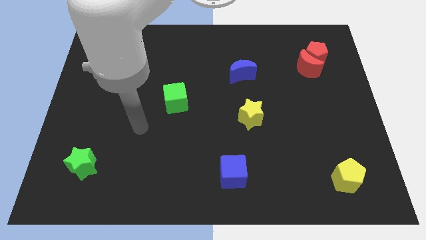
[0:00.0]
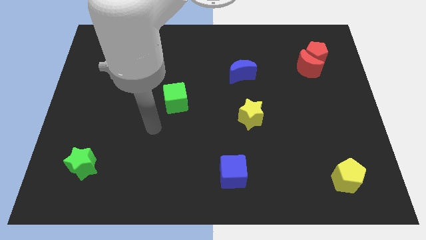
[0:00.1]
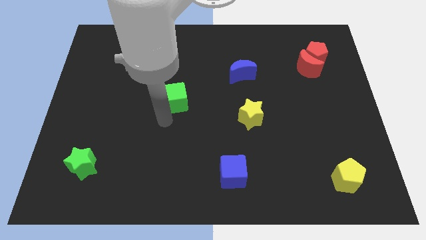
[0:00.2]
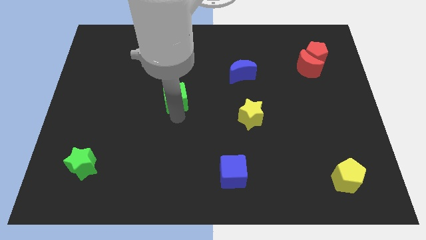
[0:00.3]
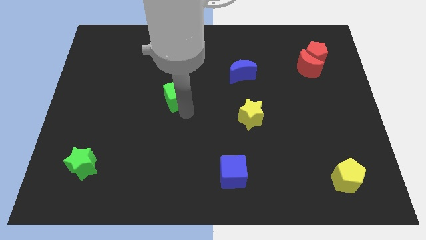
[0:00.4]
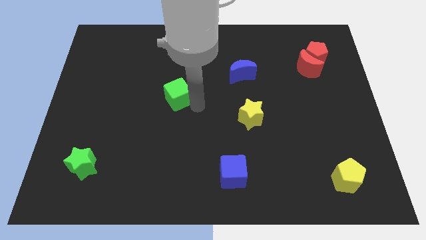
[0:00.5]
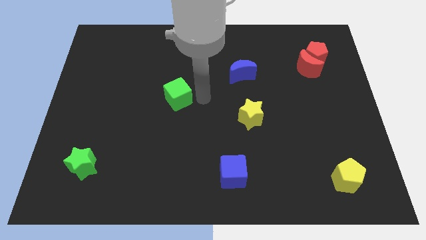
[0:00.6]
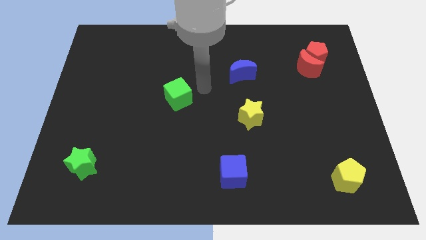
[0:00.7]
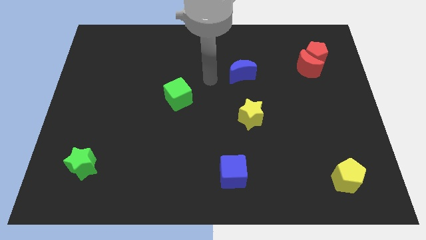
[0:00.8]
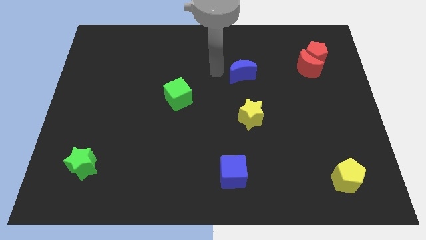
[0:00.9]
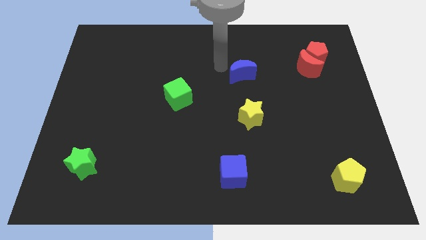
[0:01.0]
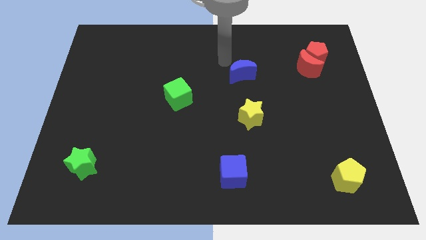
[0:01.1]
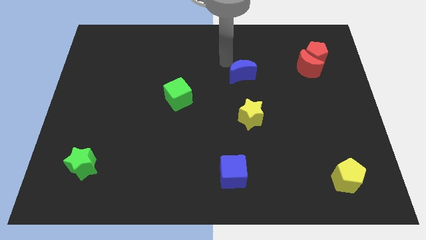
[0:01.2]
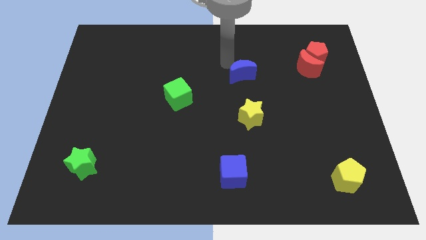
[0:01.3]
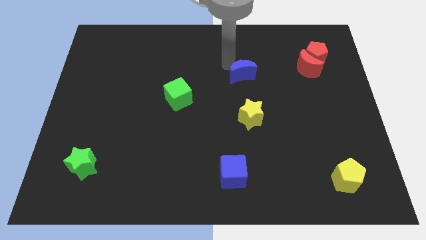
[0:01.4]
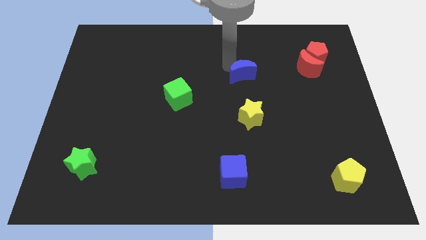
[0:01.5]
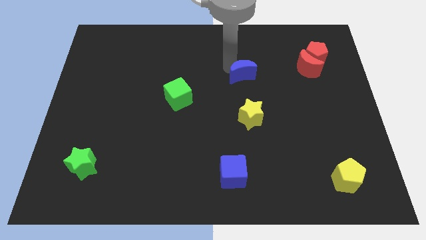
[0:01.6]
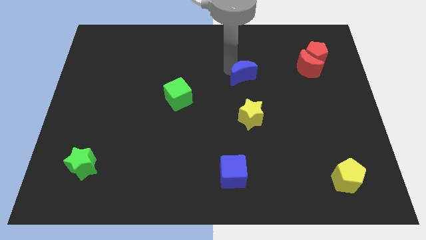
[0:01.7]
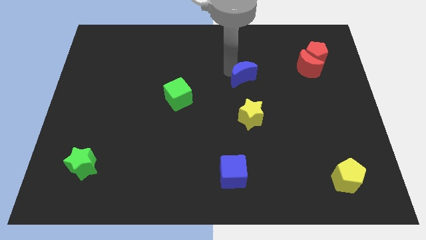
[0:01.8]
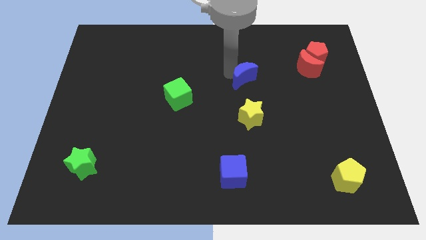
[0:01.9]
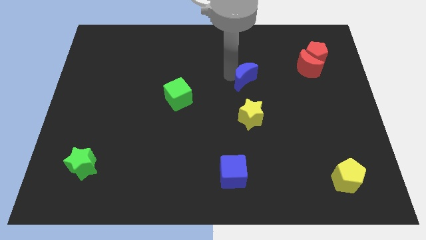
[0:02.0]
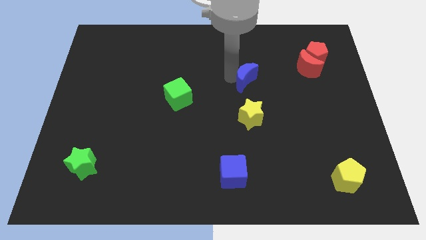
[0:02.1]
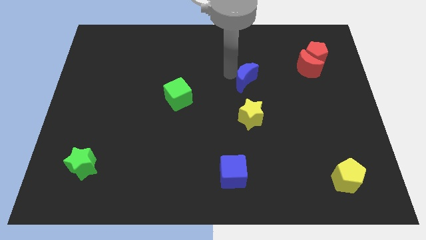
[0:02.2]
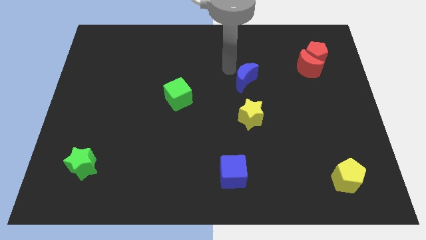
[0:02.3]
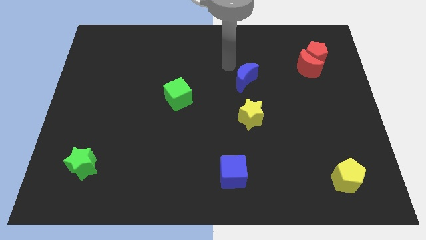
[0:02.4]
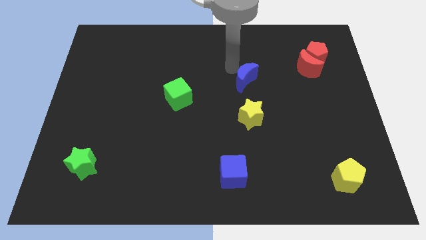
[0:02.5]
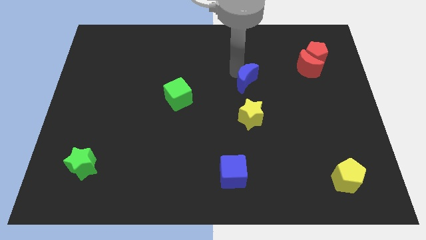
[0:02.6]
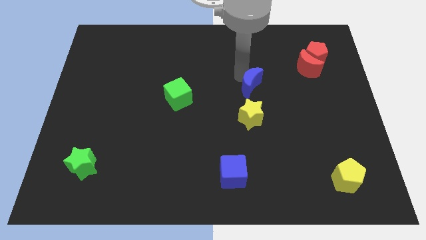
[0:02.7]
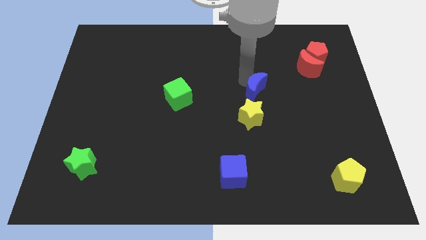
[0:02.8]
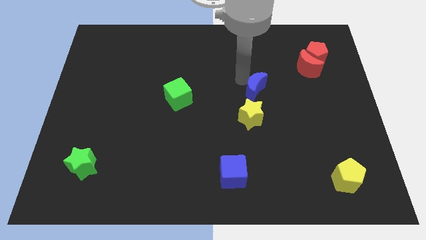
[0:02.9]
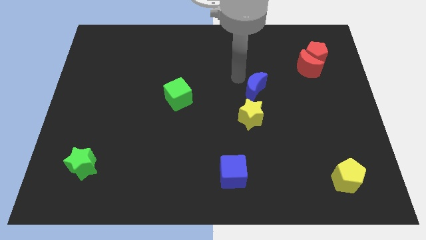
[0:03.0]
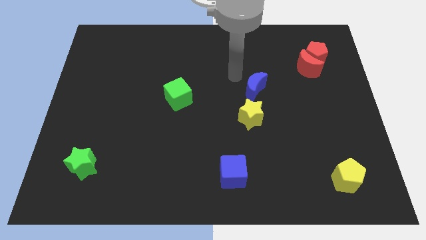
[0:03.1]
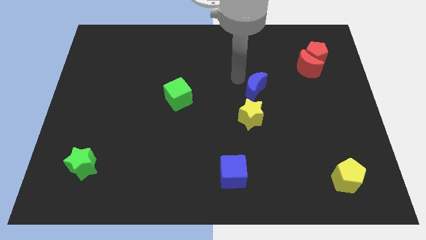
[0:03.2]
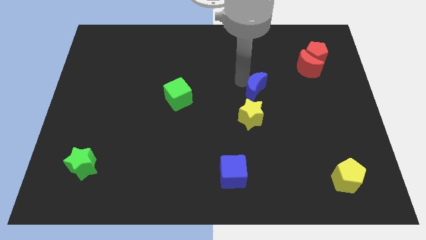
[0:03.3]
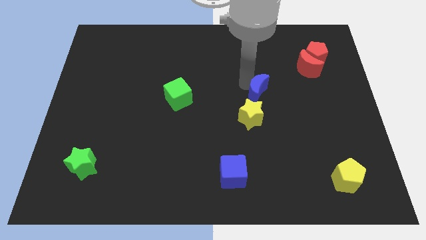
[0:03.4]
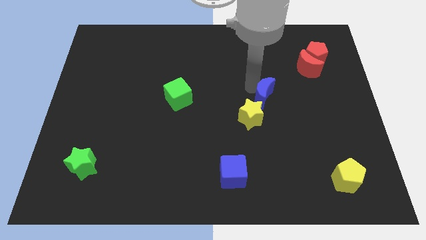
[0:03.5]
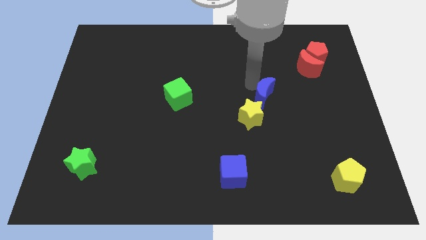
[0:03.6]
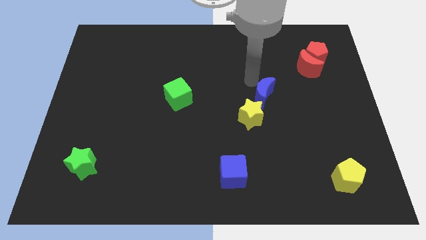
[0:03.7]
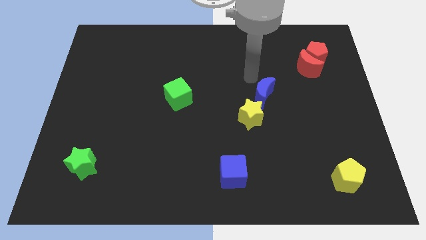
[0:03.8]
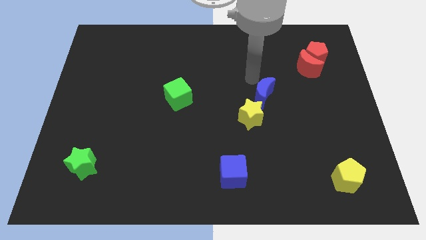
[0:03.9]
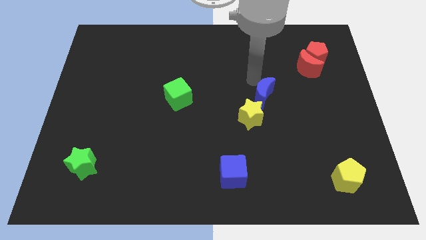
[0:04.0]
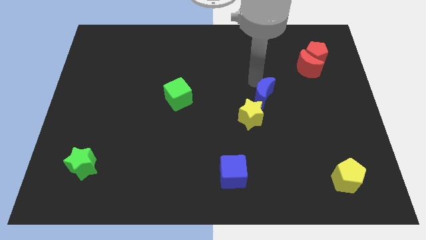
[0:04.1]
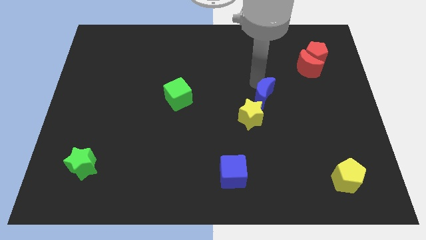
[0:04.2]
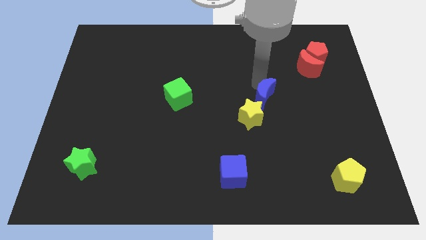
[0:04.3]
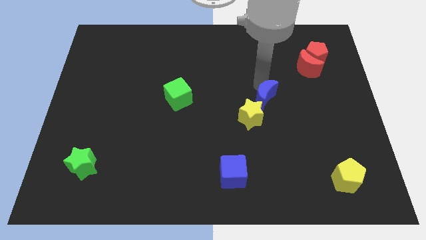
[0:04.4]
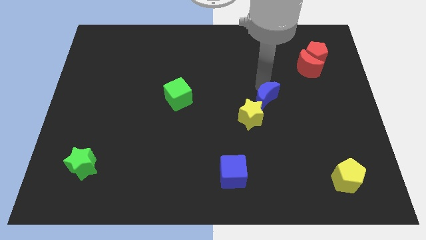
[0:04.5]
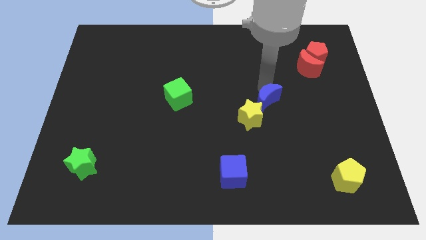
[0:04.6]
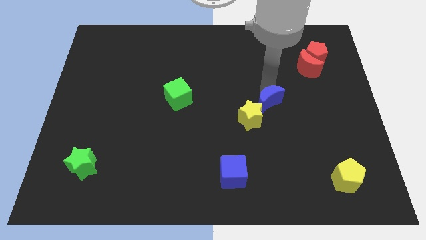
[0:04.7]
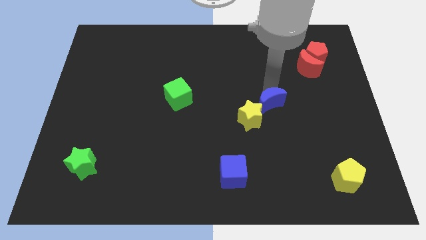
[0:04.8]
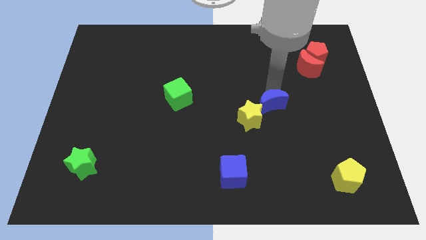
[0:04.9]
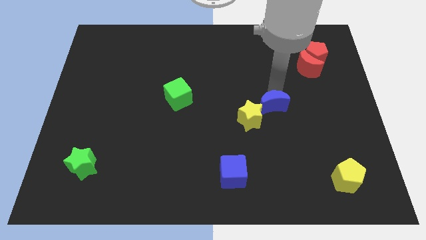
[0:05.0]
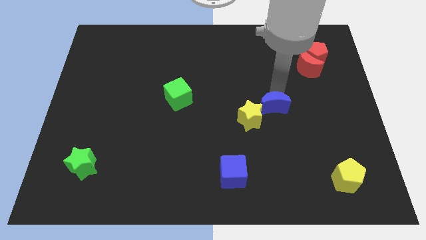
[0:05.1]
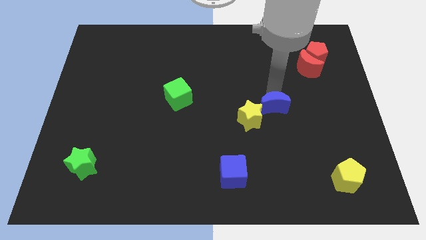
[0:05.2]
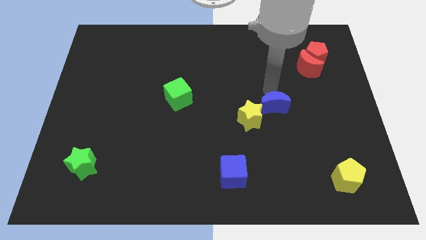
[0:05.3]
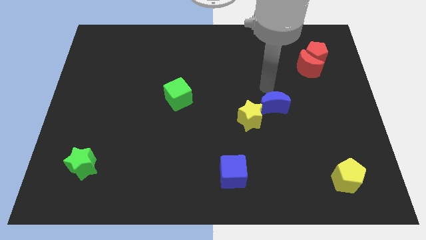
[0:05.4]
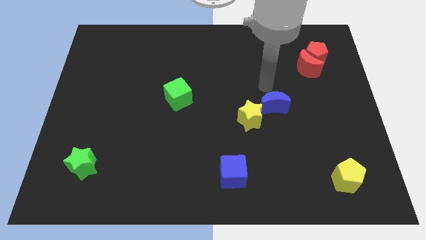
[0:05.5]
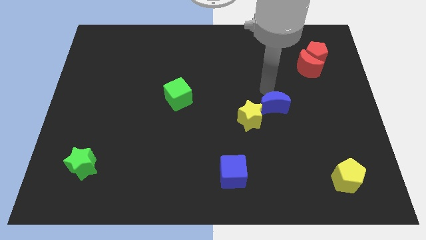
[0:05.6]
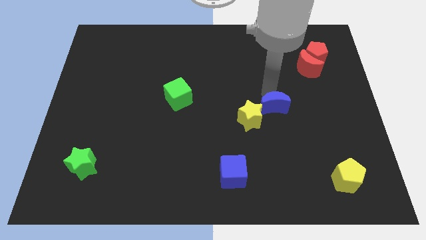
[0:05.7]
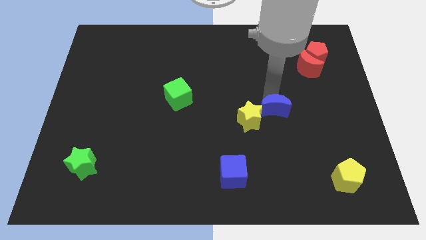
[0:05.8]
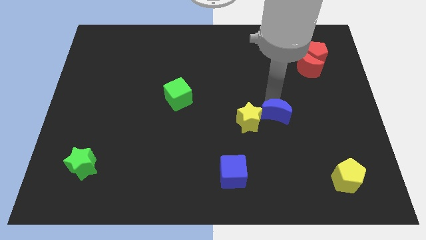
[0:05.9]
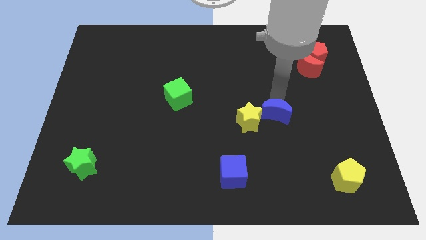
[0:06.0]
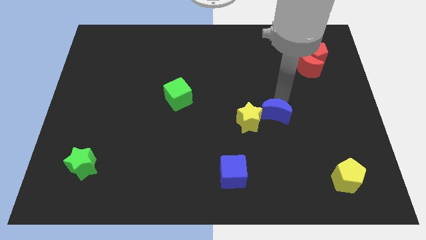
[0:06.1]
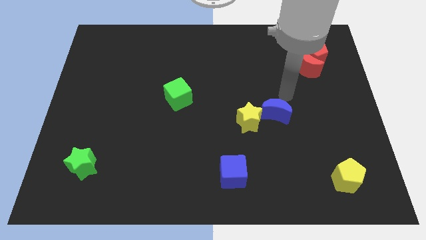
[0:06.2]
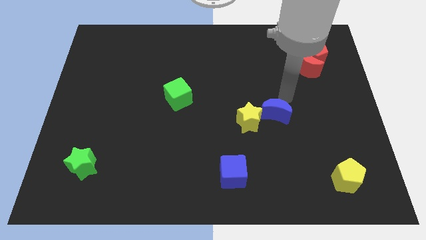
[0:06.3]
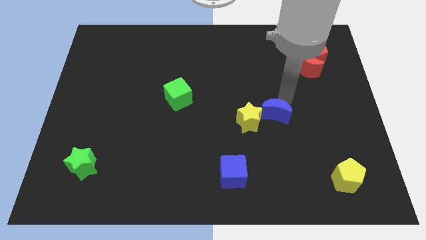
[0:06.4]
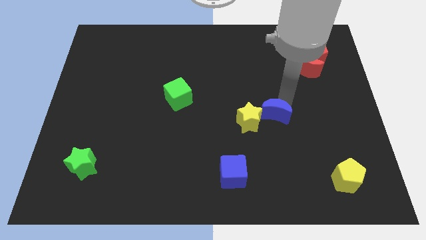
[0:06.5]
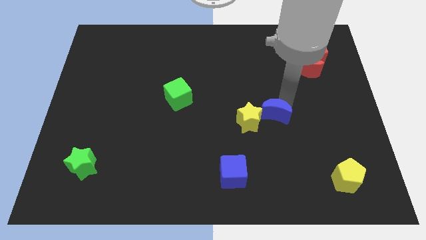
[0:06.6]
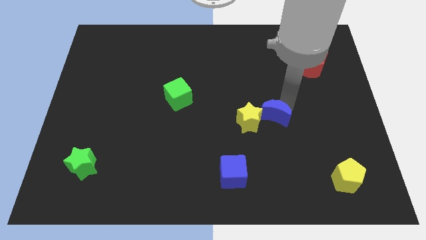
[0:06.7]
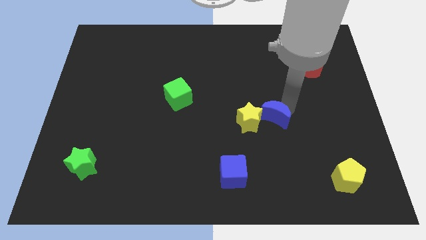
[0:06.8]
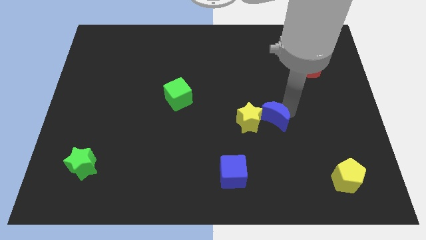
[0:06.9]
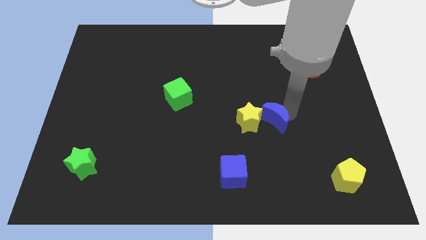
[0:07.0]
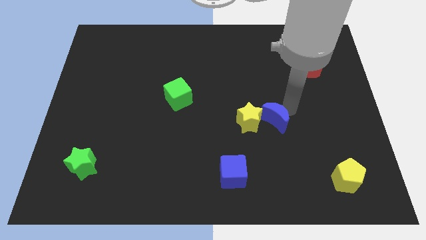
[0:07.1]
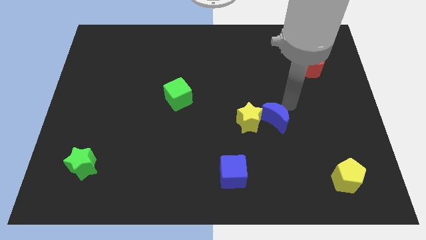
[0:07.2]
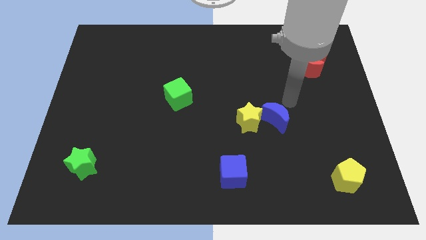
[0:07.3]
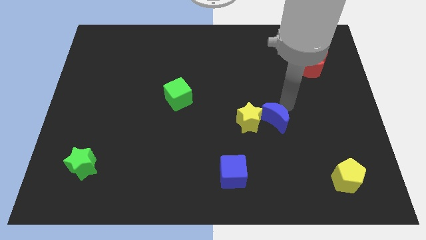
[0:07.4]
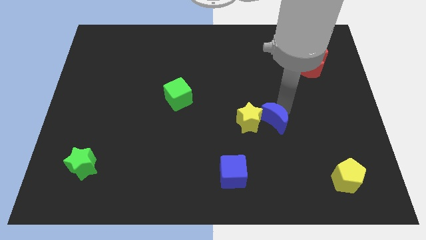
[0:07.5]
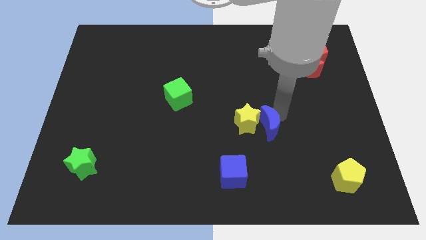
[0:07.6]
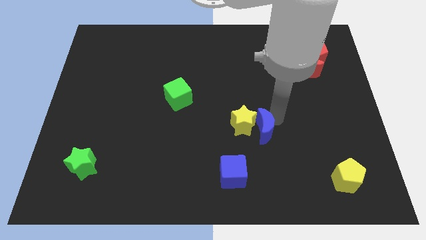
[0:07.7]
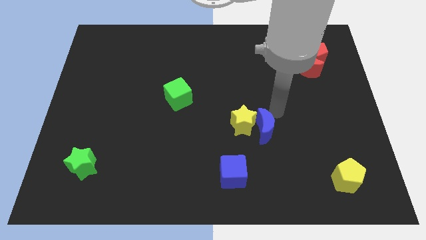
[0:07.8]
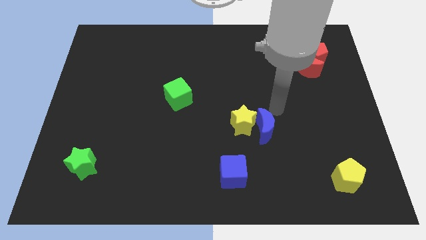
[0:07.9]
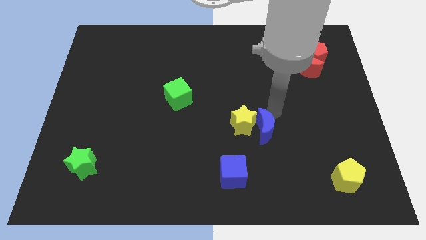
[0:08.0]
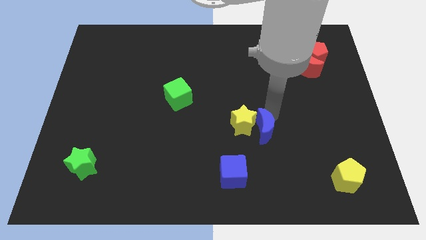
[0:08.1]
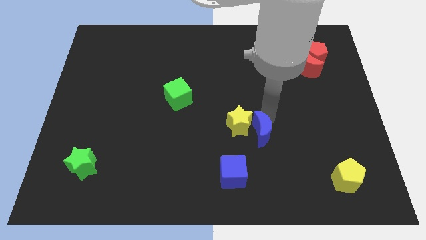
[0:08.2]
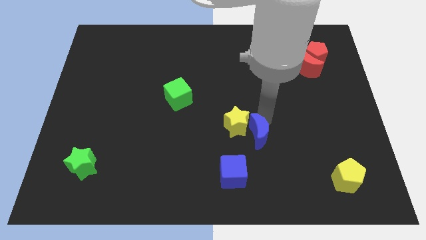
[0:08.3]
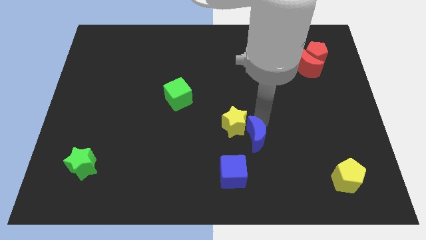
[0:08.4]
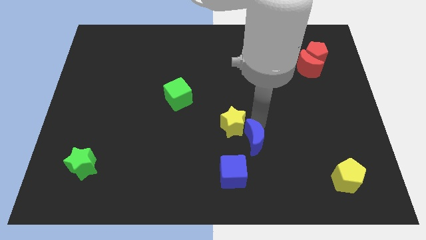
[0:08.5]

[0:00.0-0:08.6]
slide the blue moon to the bottom of the yellow star
